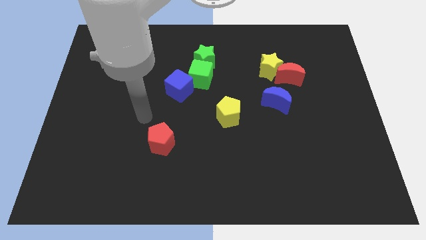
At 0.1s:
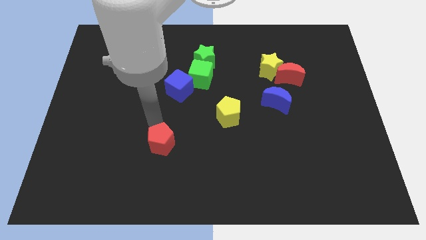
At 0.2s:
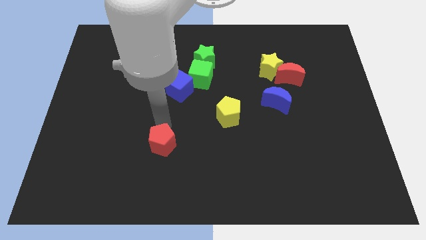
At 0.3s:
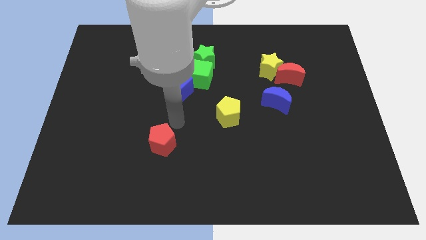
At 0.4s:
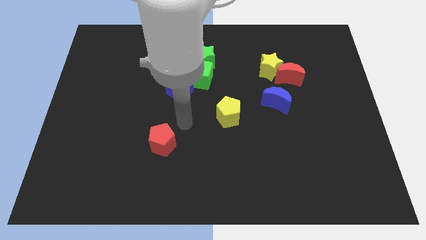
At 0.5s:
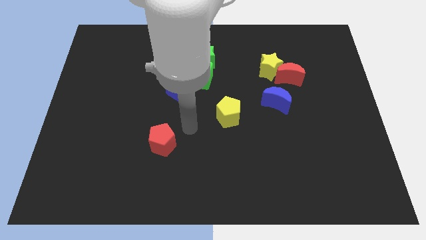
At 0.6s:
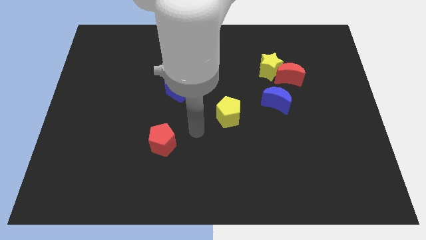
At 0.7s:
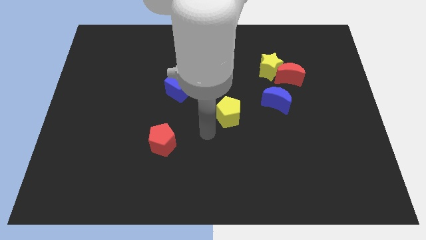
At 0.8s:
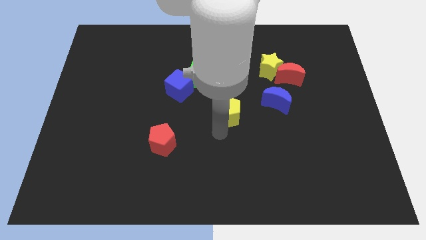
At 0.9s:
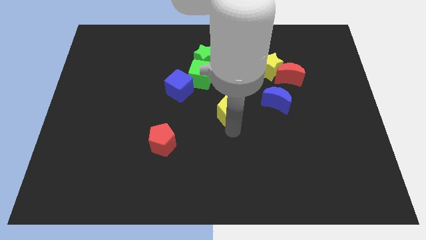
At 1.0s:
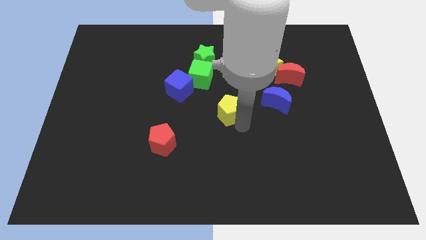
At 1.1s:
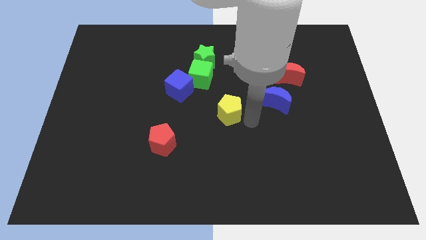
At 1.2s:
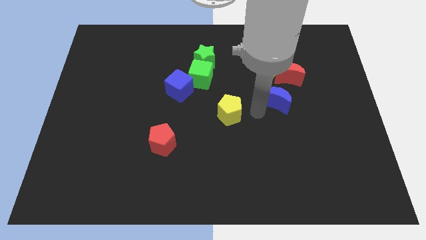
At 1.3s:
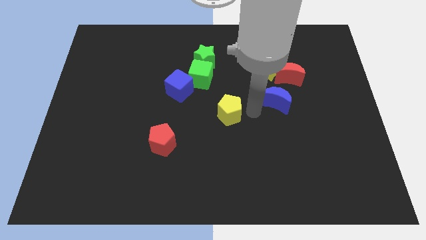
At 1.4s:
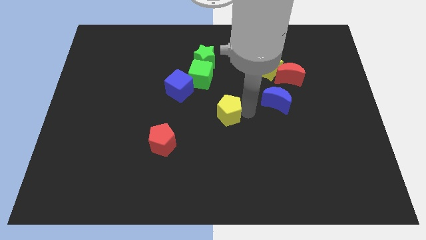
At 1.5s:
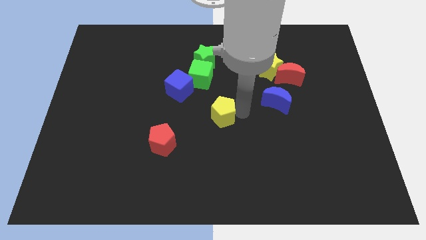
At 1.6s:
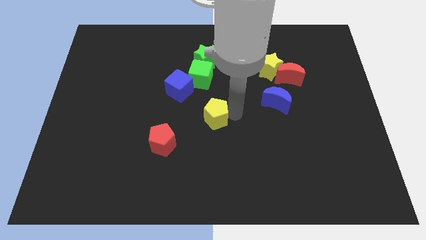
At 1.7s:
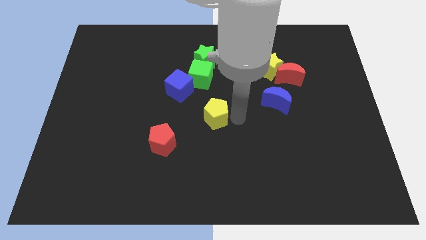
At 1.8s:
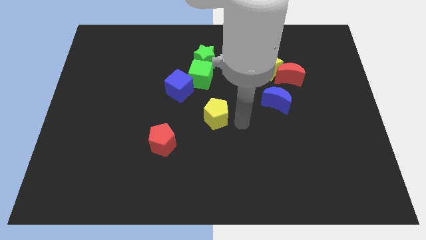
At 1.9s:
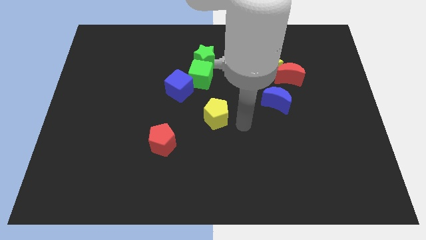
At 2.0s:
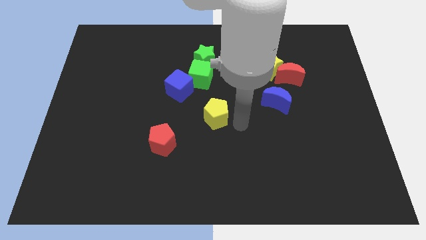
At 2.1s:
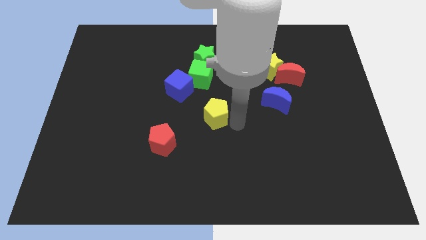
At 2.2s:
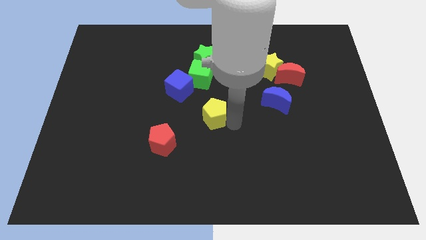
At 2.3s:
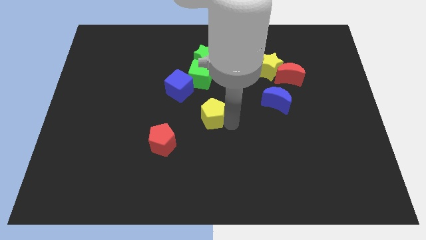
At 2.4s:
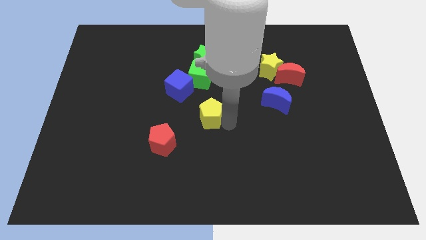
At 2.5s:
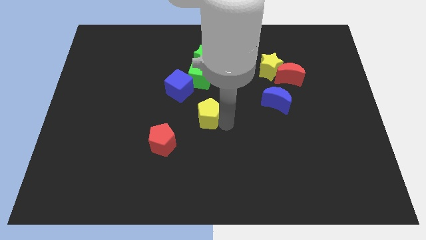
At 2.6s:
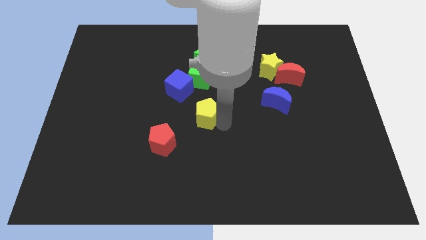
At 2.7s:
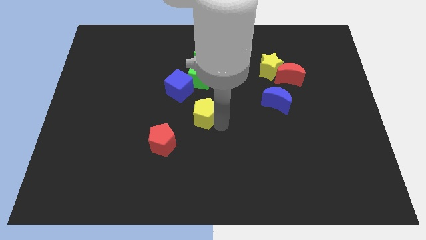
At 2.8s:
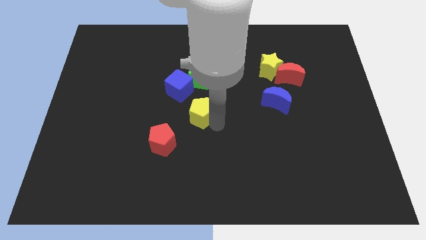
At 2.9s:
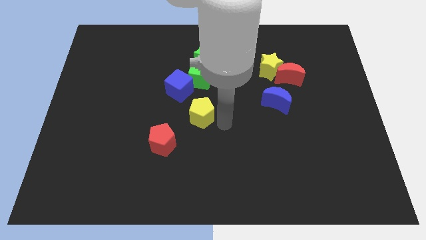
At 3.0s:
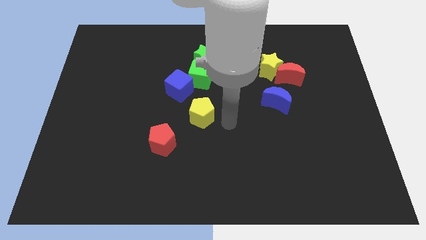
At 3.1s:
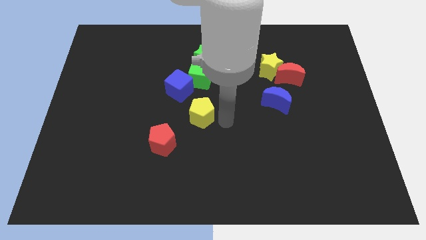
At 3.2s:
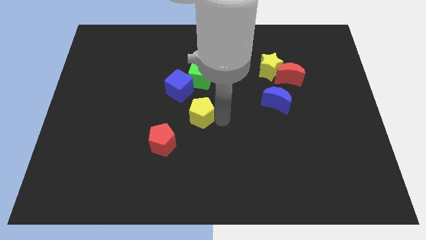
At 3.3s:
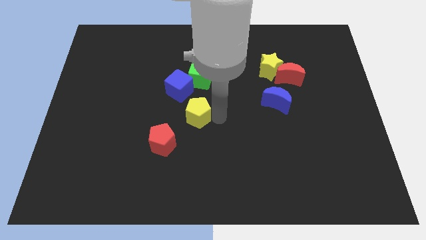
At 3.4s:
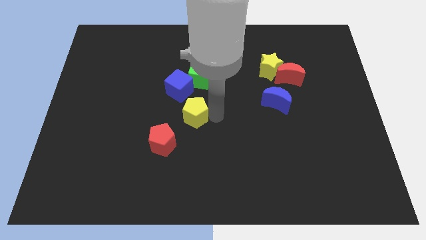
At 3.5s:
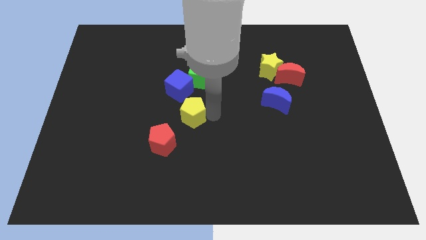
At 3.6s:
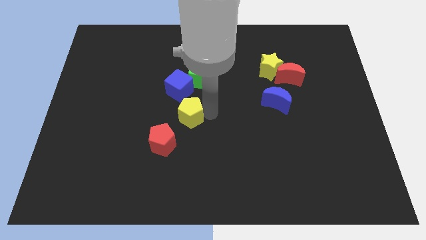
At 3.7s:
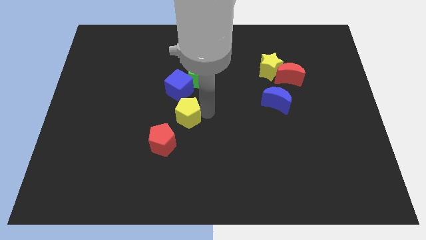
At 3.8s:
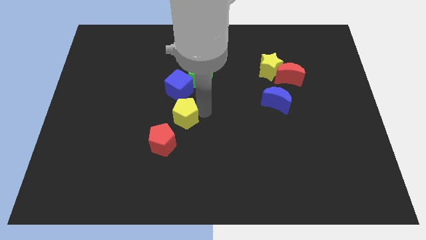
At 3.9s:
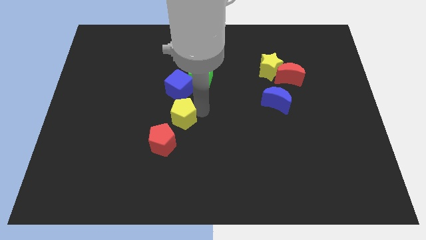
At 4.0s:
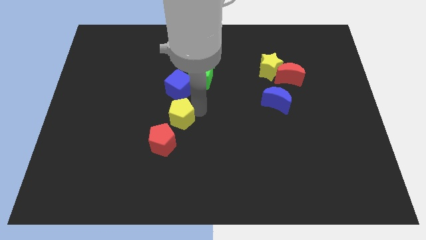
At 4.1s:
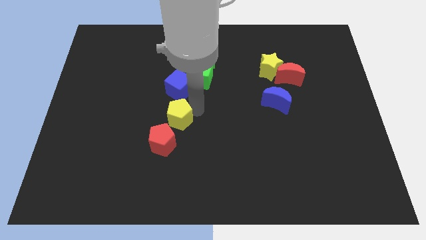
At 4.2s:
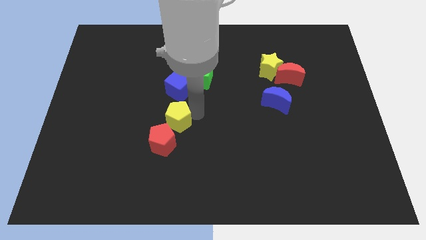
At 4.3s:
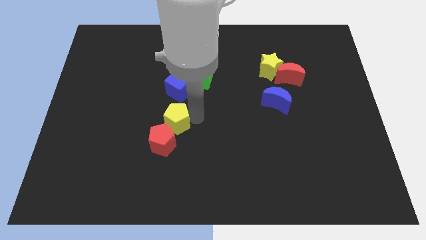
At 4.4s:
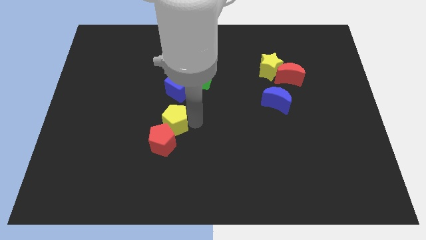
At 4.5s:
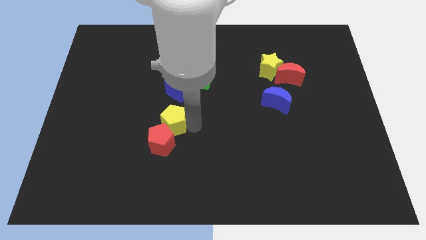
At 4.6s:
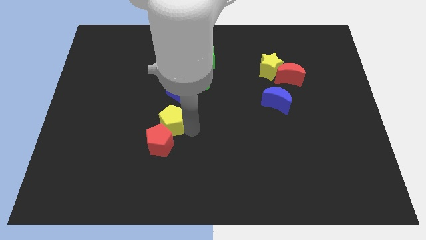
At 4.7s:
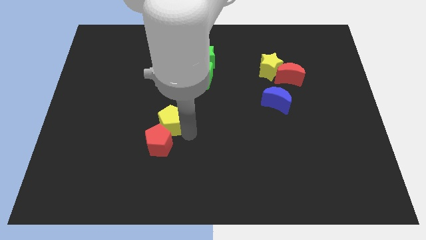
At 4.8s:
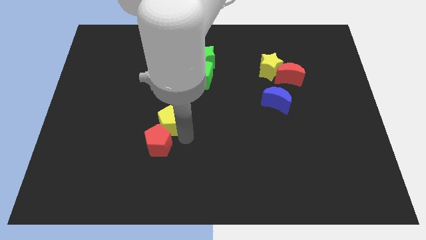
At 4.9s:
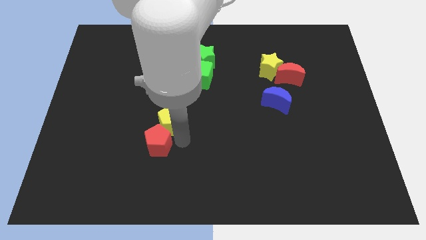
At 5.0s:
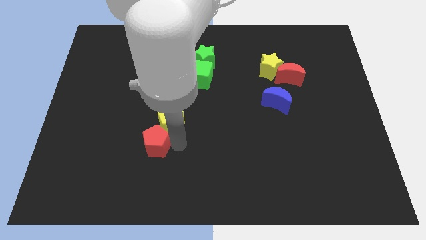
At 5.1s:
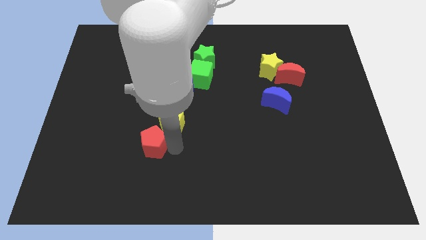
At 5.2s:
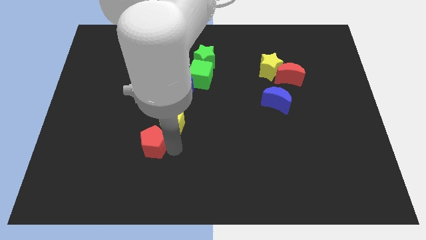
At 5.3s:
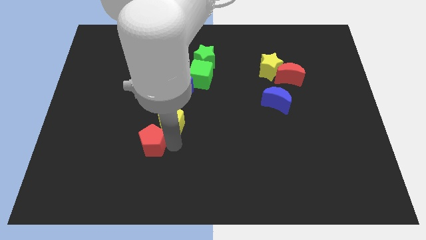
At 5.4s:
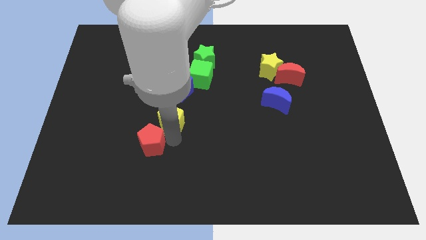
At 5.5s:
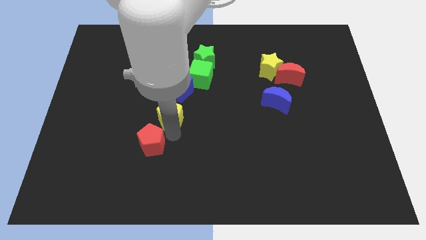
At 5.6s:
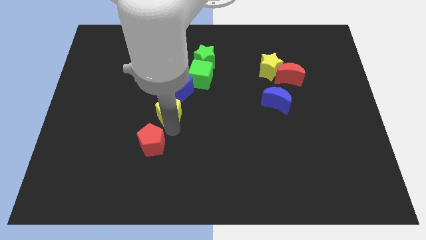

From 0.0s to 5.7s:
put the yellow pentagon to the bottom left side of the blue cube

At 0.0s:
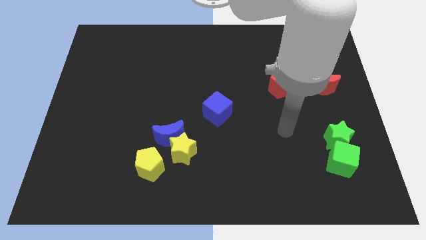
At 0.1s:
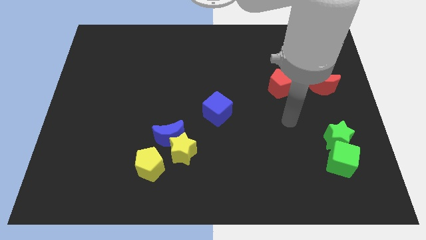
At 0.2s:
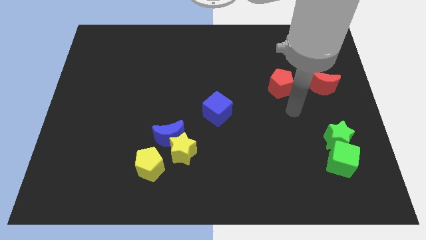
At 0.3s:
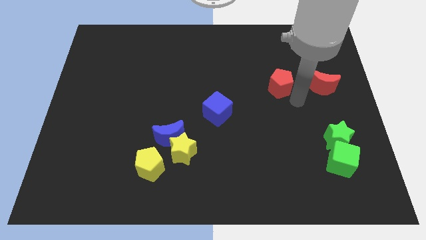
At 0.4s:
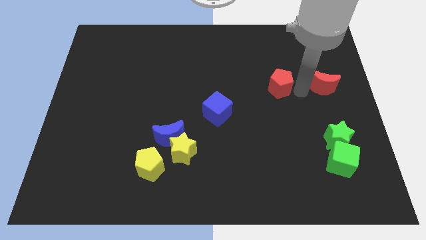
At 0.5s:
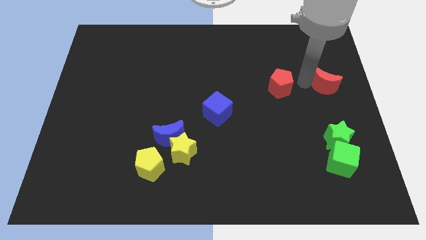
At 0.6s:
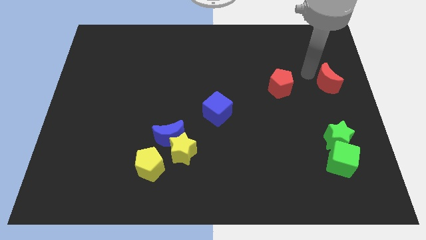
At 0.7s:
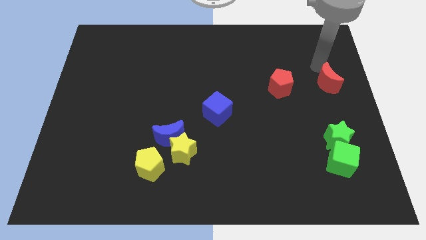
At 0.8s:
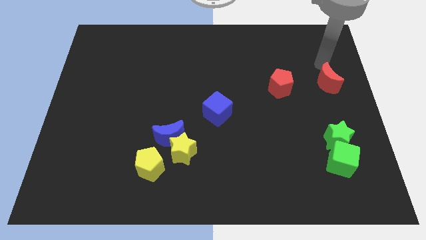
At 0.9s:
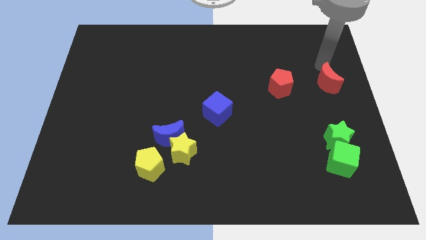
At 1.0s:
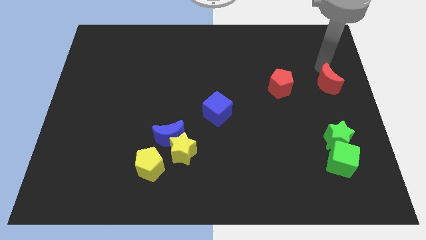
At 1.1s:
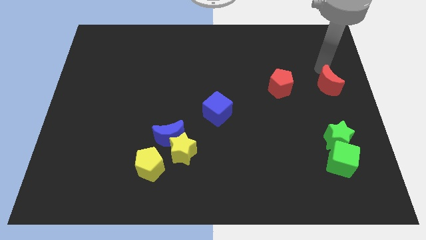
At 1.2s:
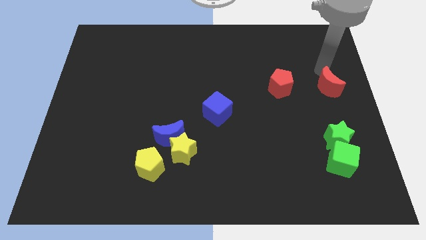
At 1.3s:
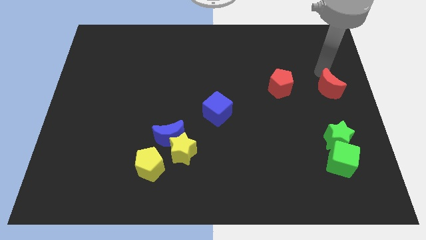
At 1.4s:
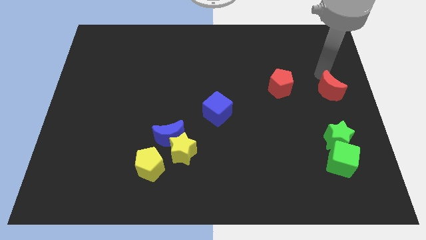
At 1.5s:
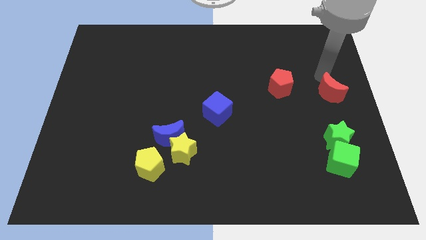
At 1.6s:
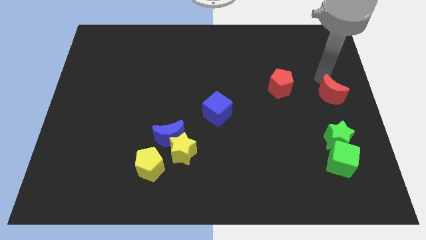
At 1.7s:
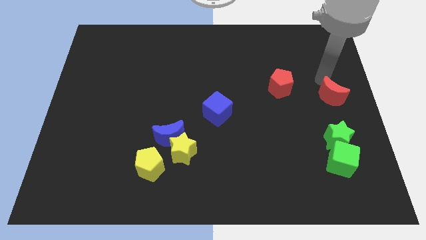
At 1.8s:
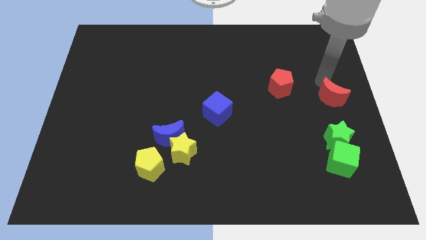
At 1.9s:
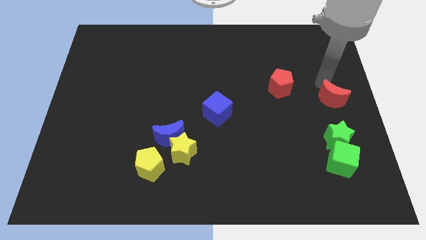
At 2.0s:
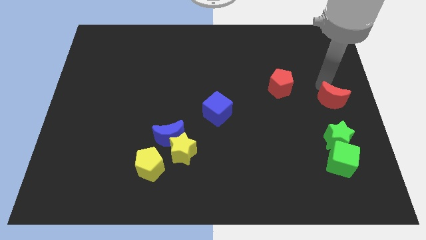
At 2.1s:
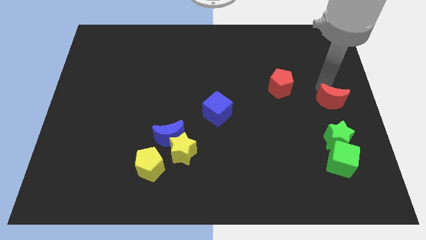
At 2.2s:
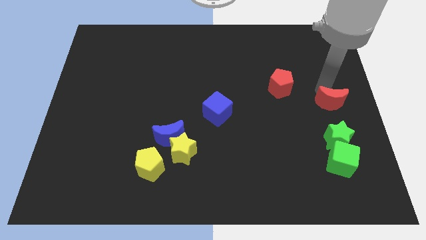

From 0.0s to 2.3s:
slide the red moon to the top of the green cube
